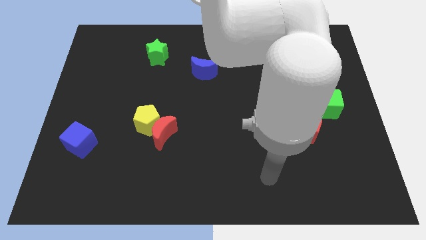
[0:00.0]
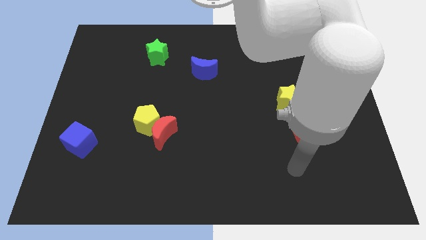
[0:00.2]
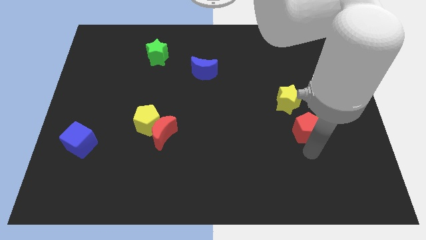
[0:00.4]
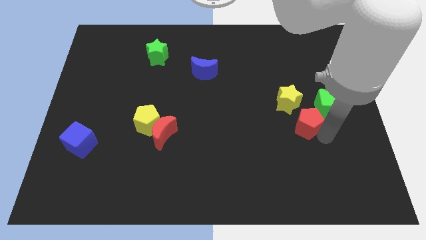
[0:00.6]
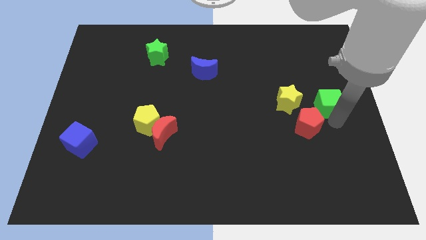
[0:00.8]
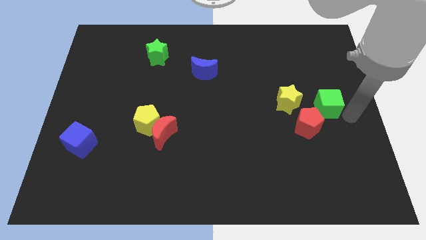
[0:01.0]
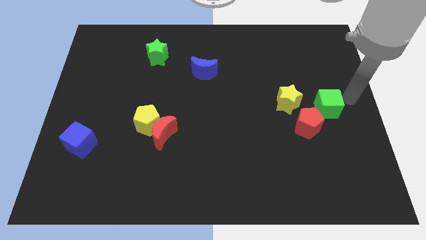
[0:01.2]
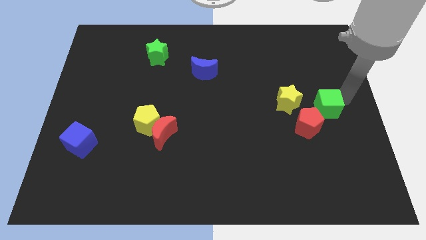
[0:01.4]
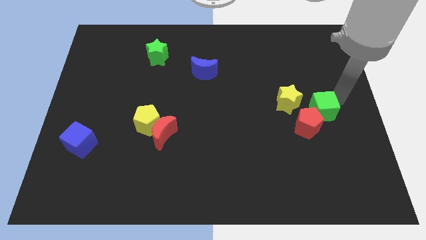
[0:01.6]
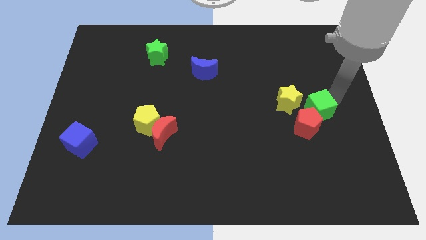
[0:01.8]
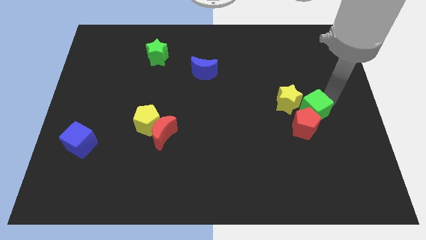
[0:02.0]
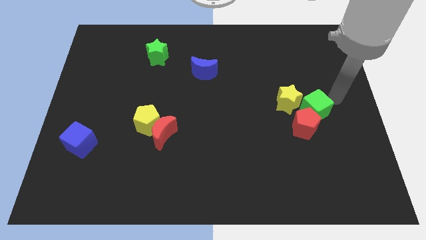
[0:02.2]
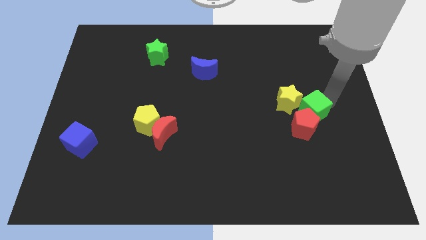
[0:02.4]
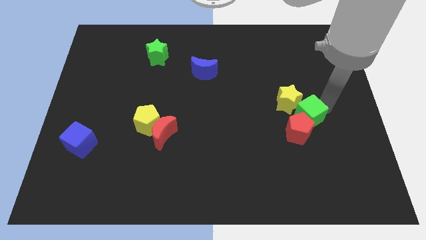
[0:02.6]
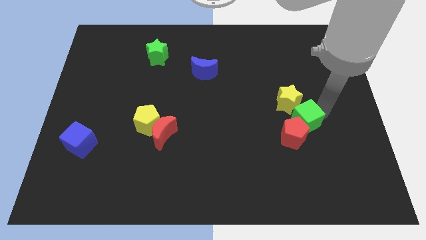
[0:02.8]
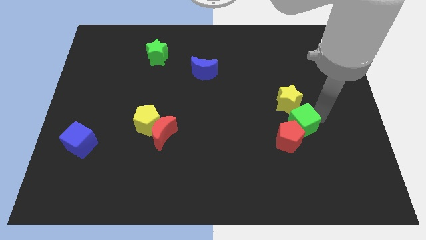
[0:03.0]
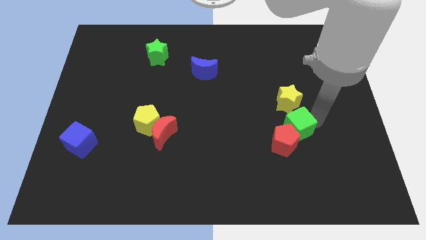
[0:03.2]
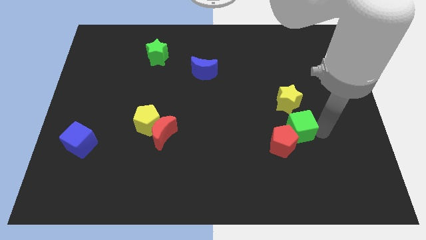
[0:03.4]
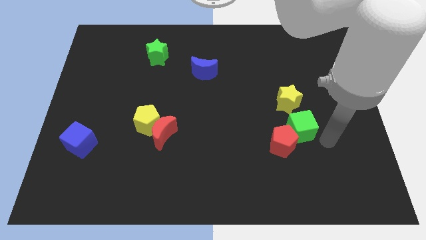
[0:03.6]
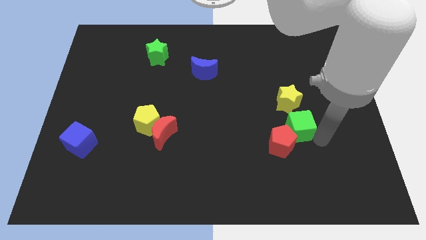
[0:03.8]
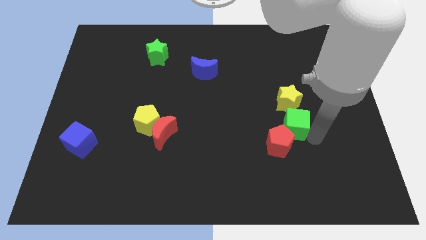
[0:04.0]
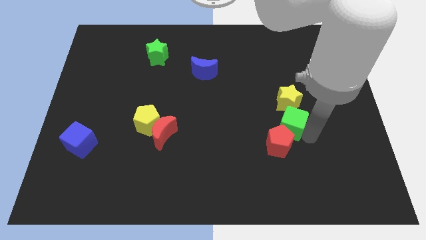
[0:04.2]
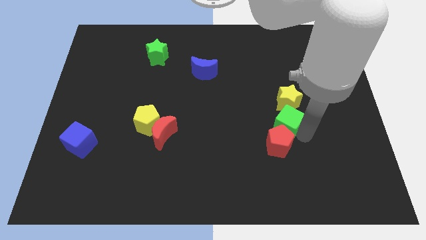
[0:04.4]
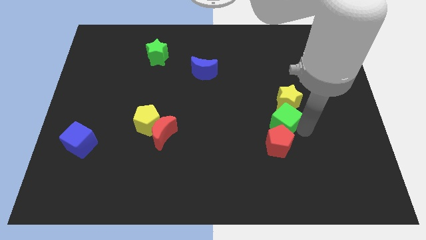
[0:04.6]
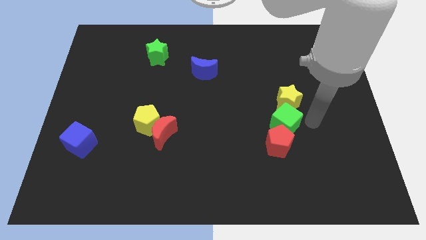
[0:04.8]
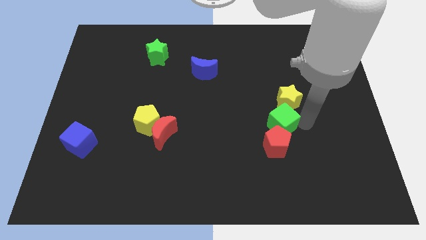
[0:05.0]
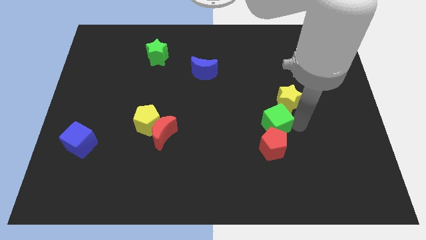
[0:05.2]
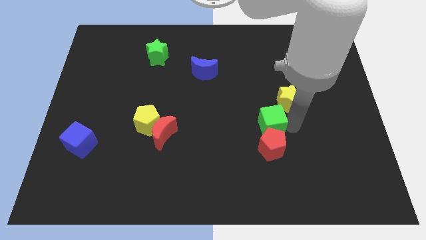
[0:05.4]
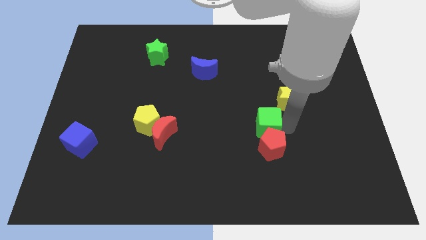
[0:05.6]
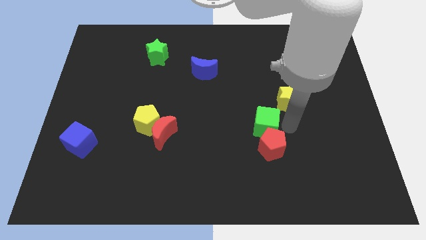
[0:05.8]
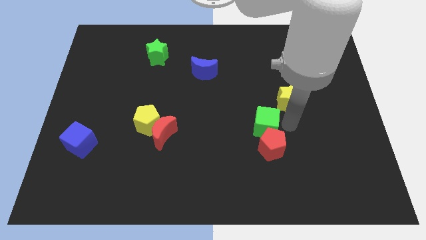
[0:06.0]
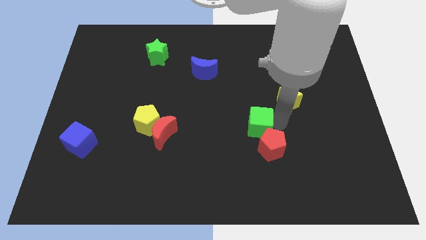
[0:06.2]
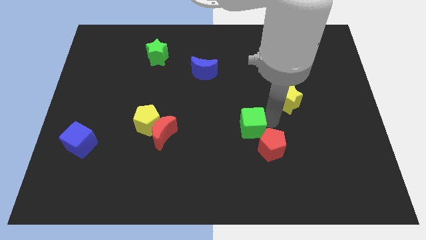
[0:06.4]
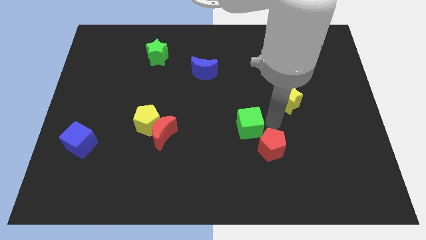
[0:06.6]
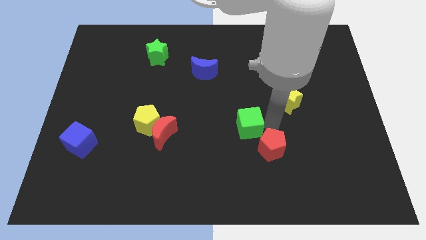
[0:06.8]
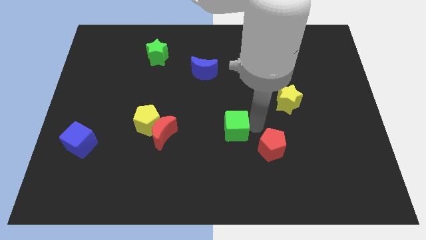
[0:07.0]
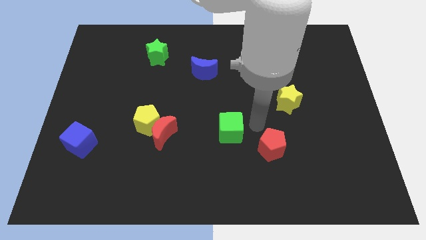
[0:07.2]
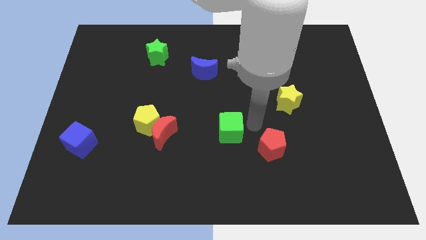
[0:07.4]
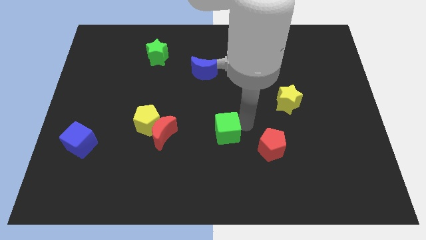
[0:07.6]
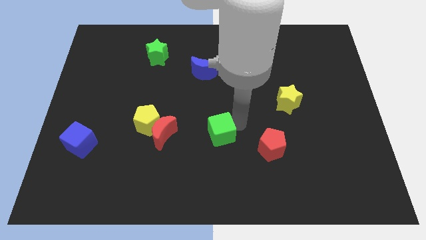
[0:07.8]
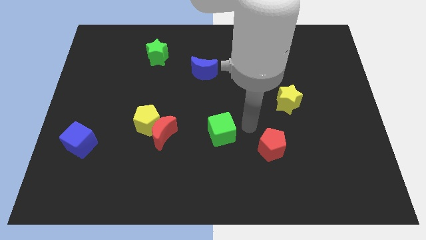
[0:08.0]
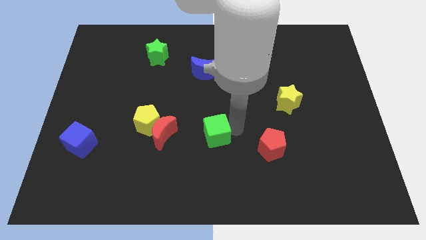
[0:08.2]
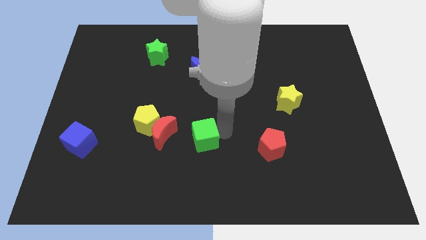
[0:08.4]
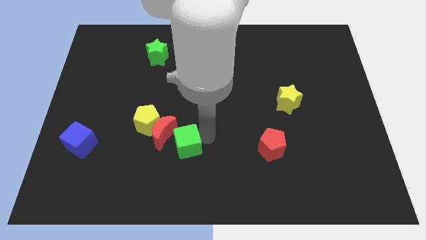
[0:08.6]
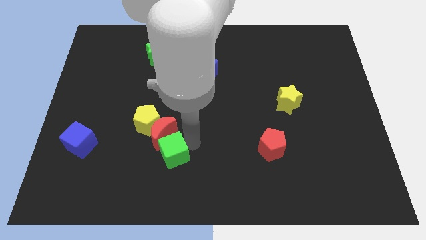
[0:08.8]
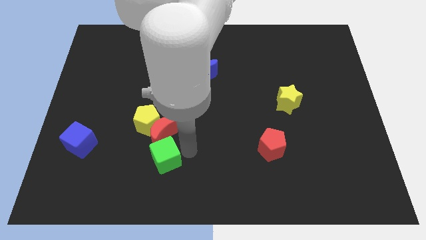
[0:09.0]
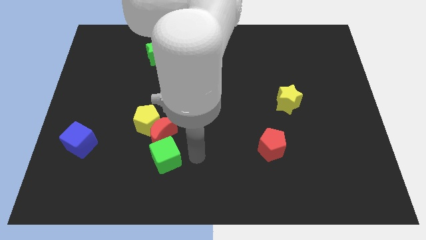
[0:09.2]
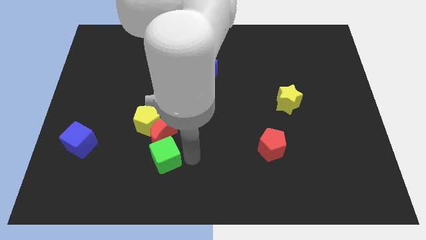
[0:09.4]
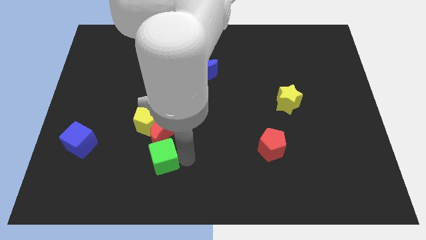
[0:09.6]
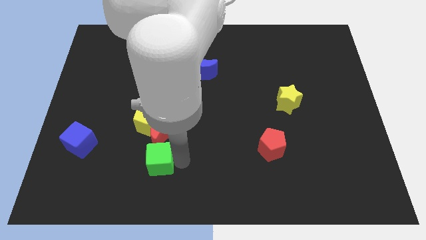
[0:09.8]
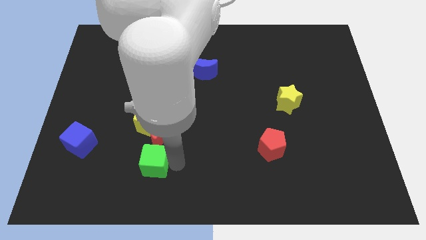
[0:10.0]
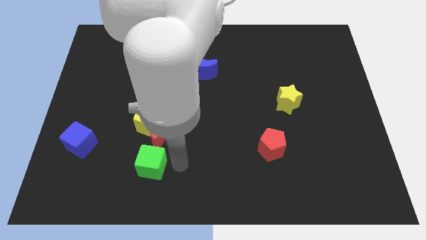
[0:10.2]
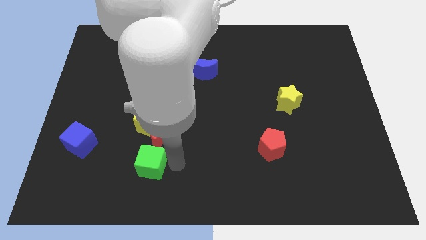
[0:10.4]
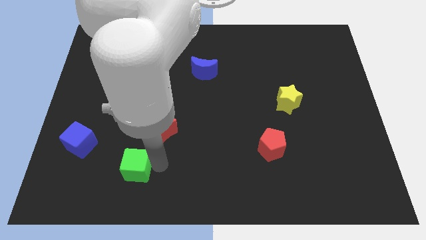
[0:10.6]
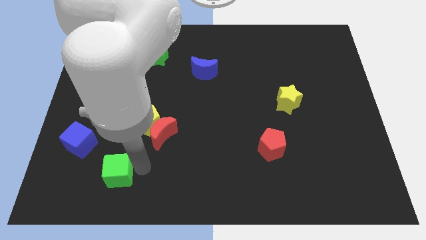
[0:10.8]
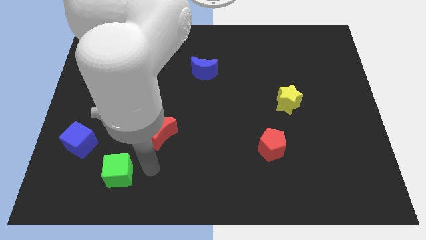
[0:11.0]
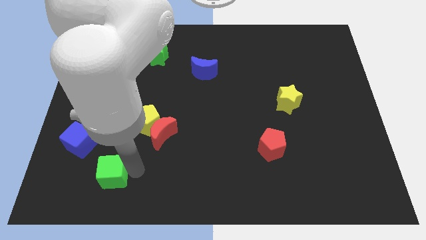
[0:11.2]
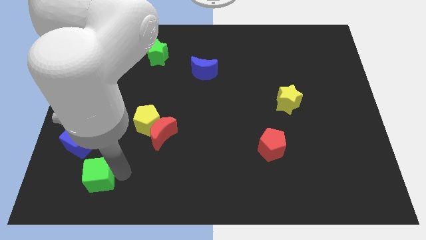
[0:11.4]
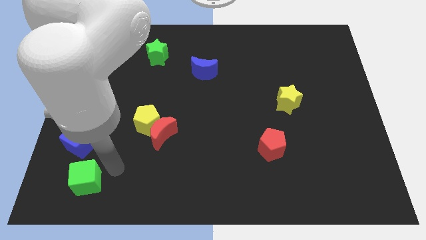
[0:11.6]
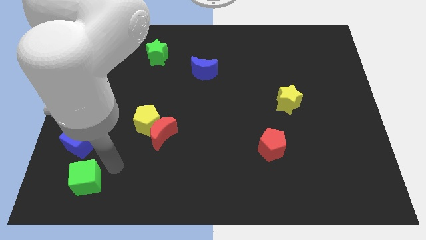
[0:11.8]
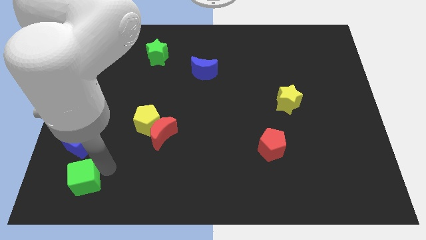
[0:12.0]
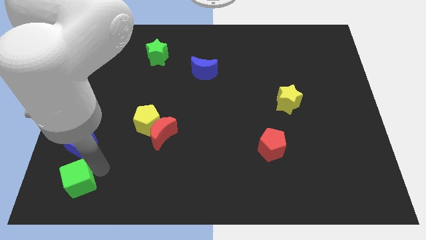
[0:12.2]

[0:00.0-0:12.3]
slide the green cube to the lower left corner
